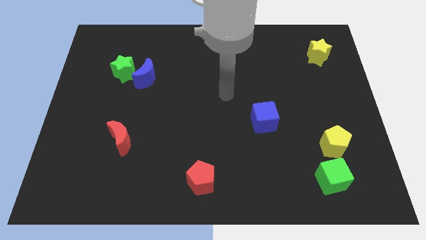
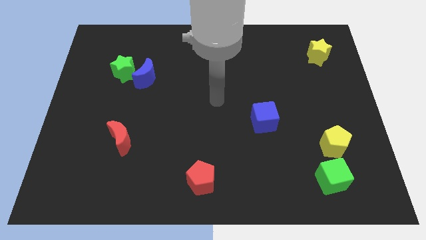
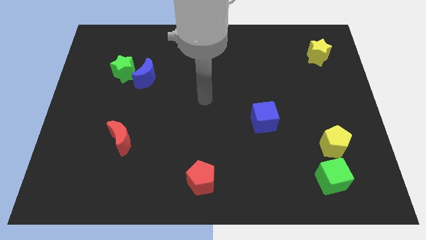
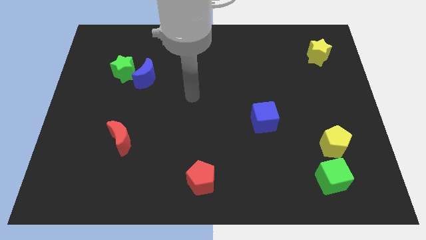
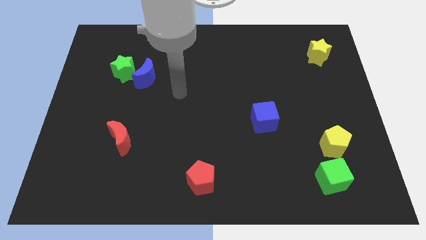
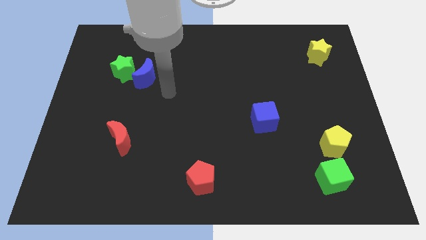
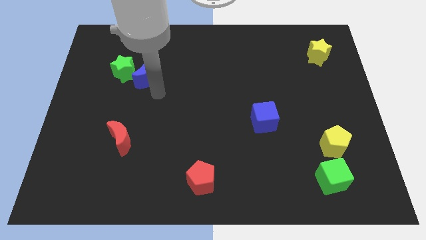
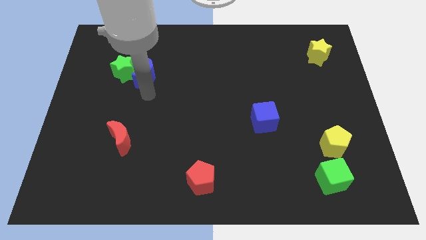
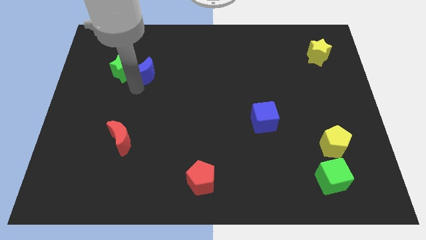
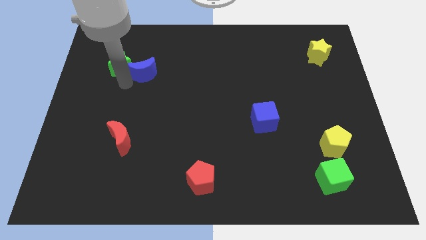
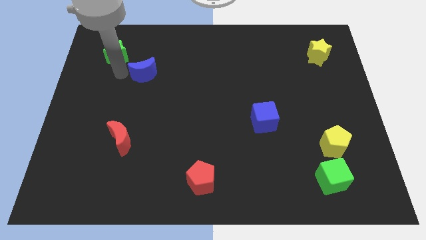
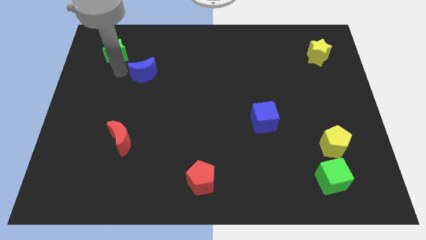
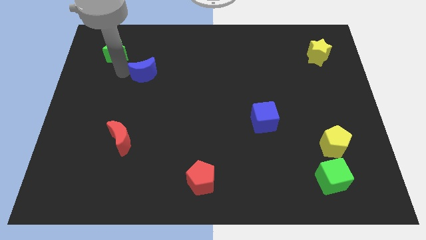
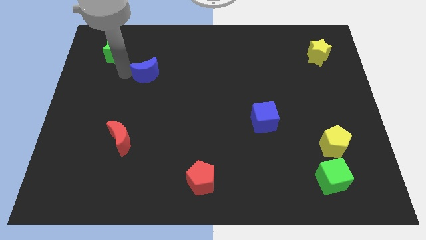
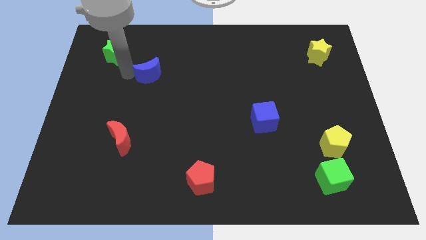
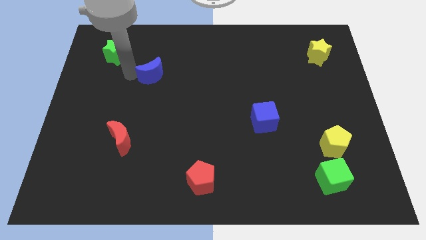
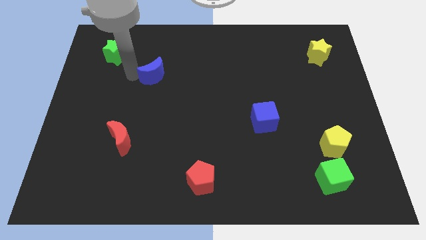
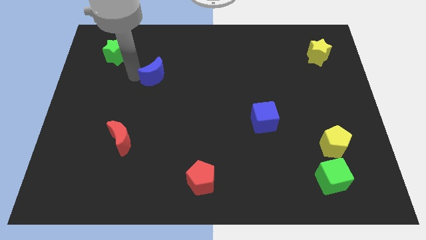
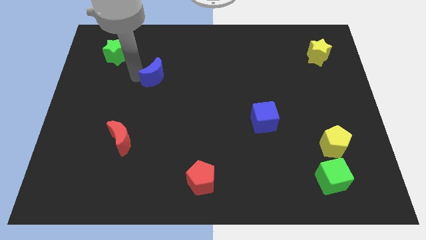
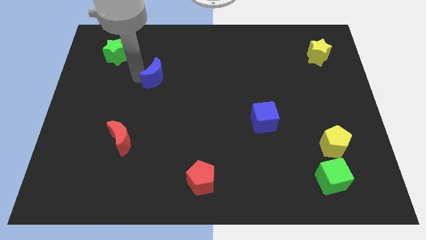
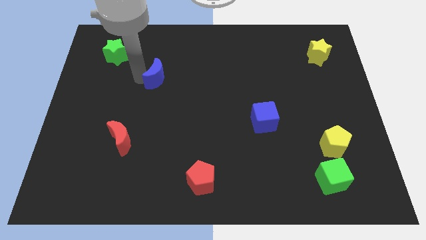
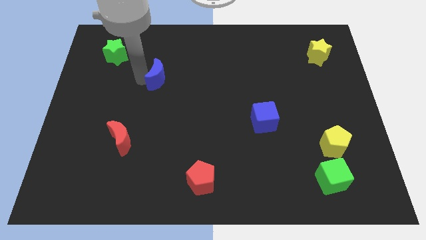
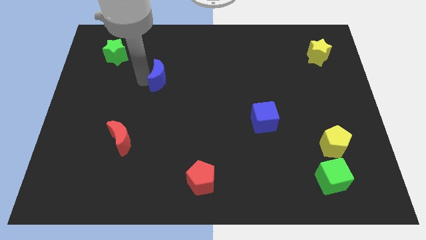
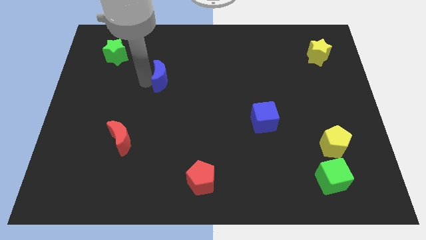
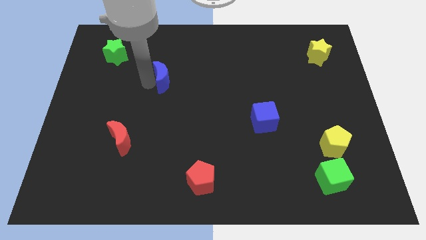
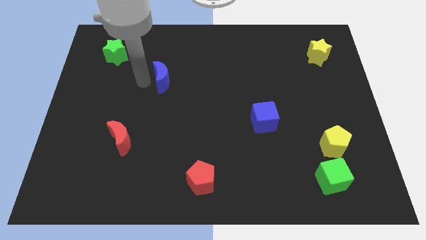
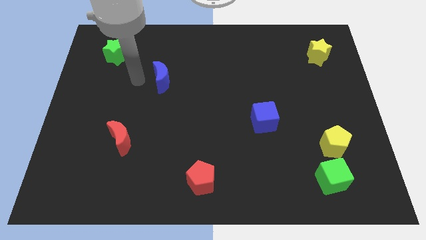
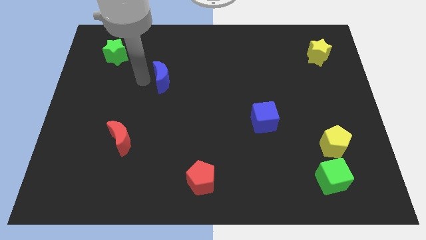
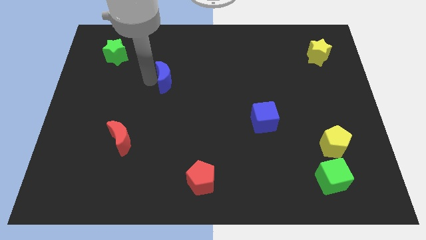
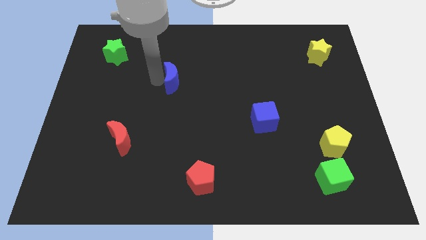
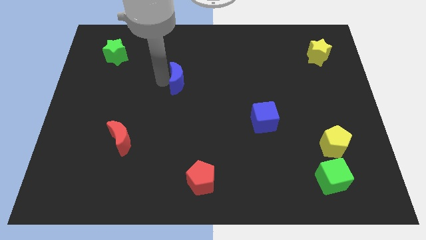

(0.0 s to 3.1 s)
slide the blue moon a little right

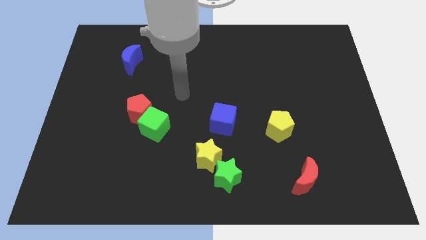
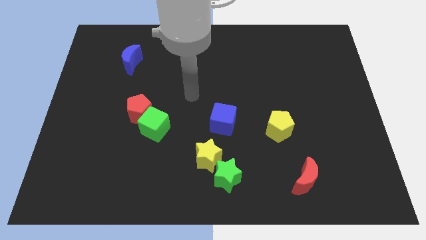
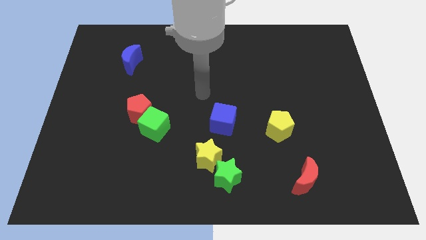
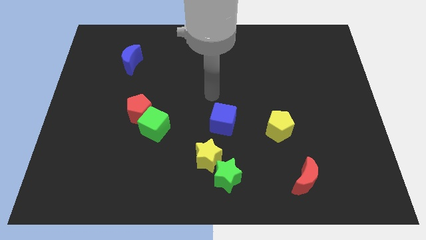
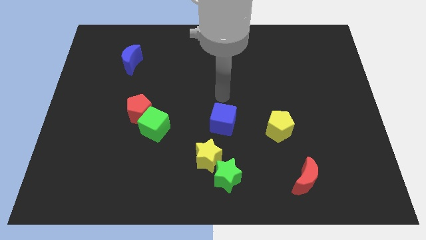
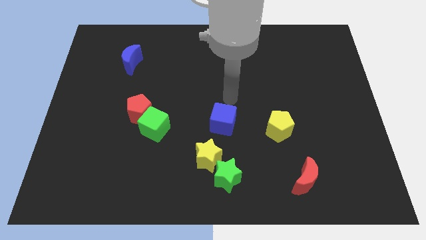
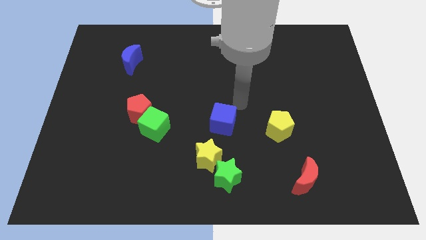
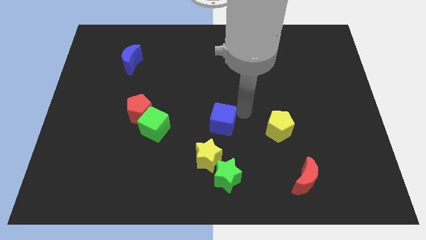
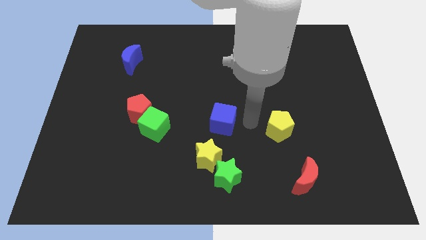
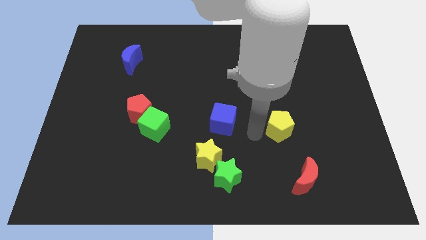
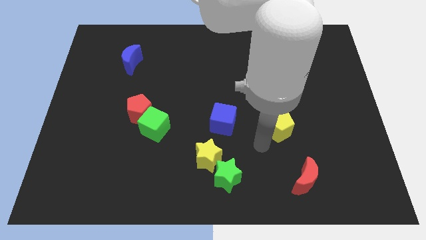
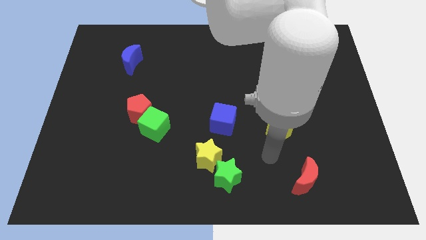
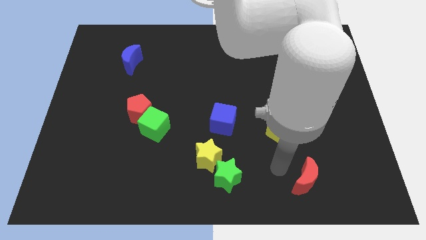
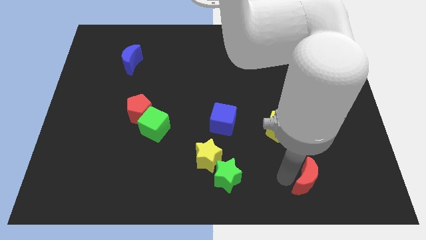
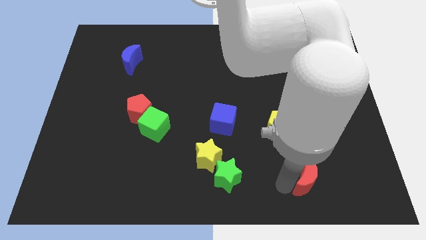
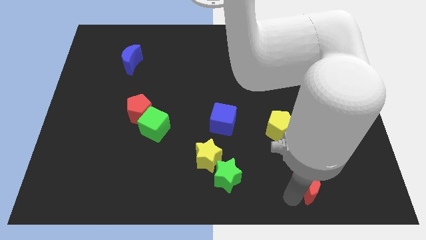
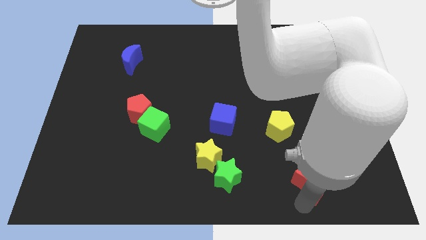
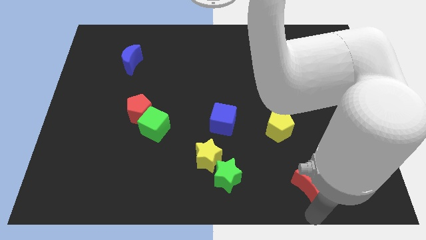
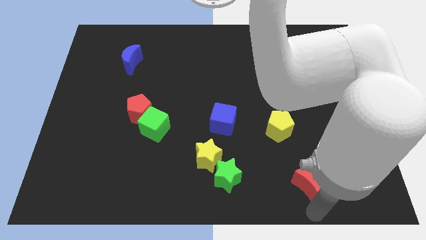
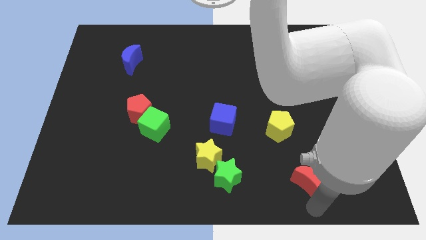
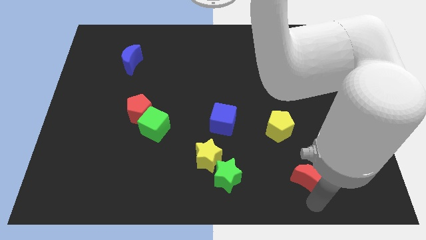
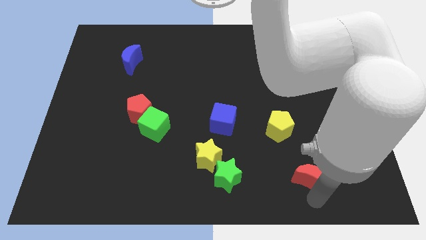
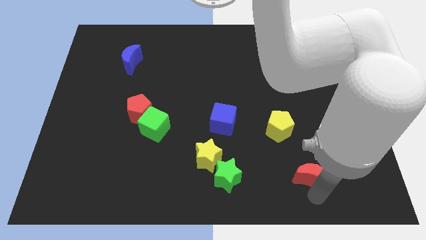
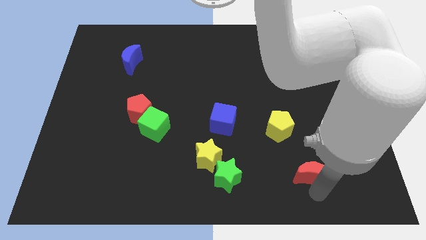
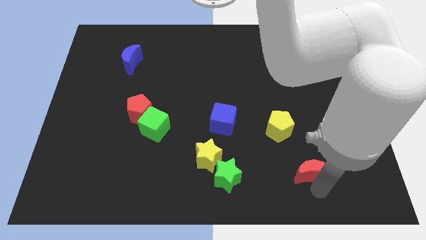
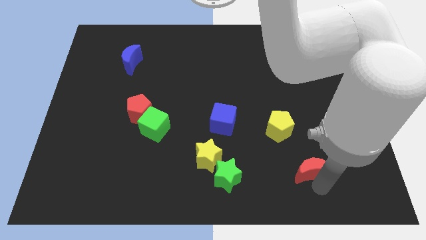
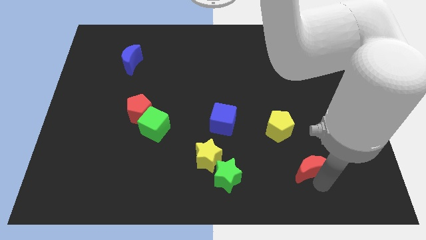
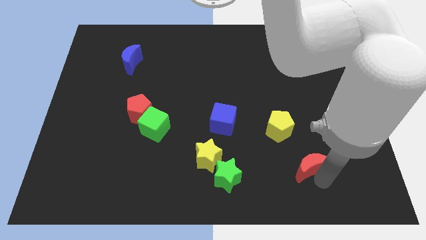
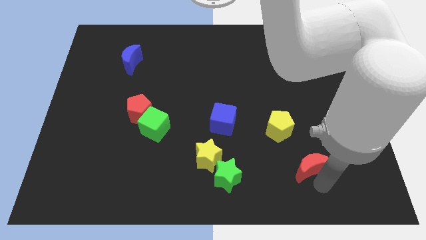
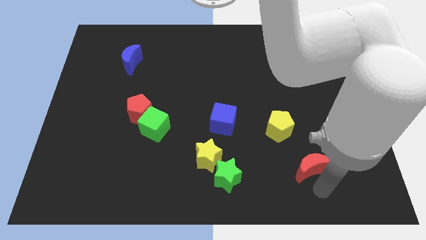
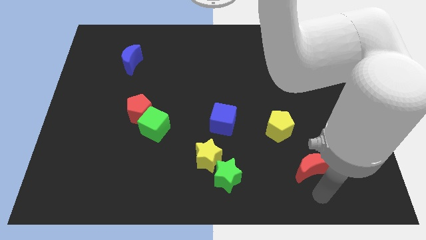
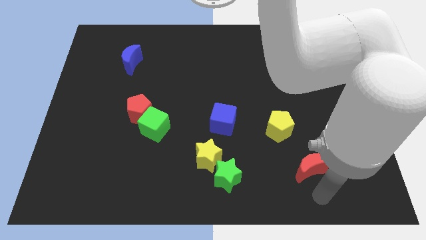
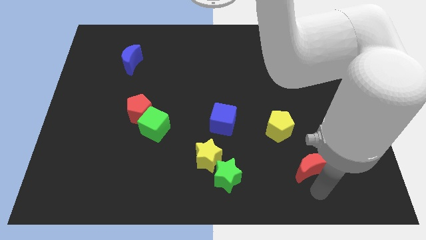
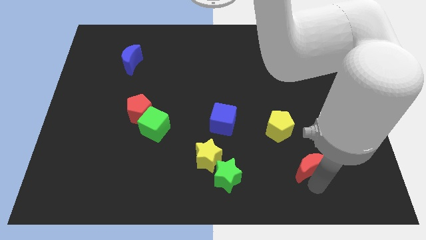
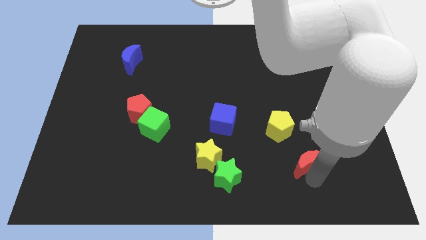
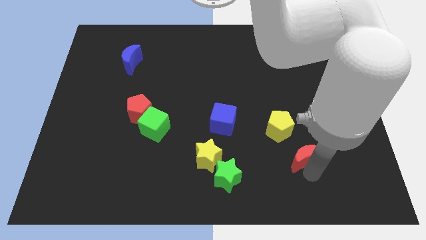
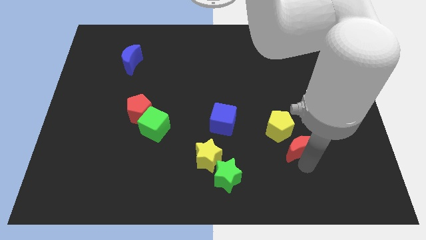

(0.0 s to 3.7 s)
push the red moon upwards a bit

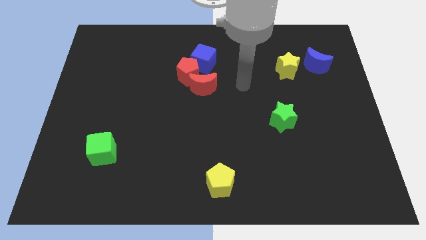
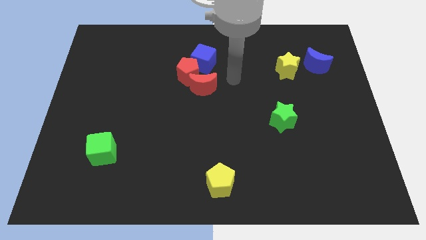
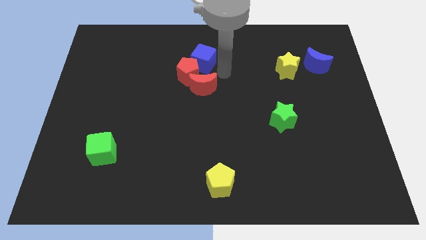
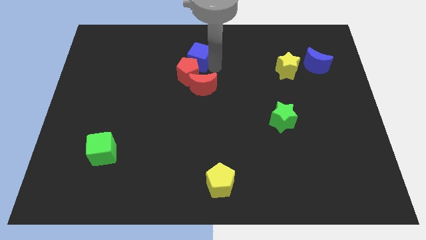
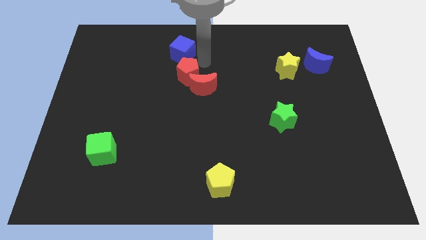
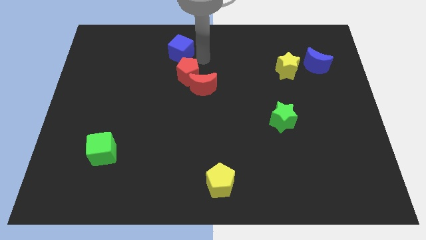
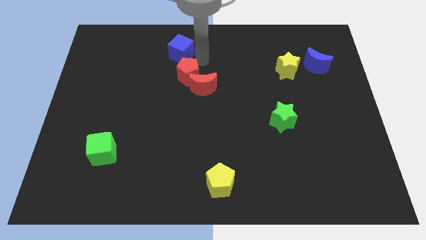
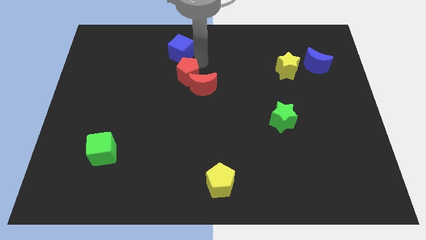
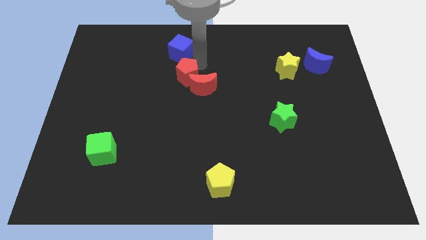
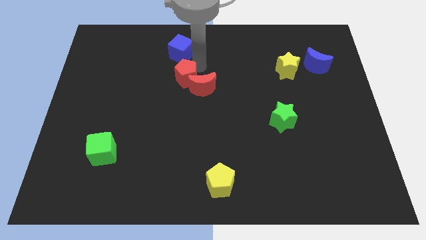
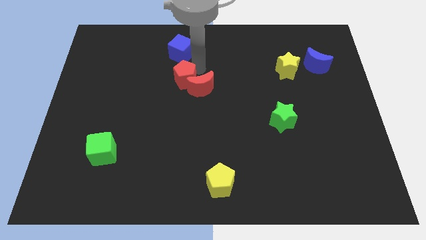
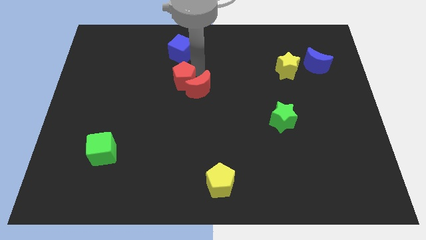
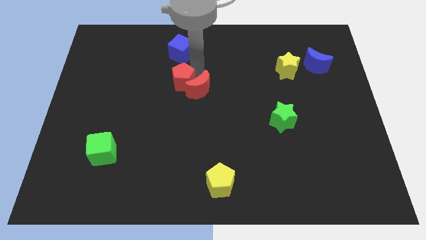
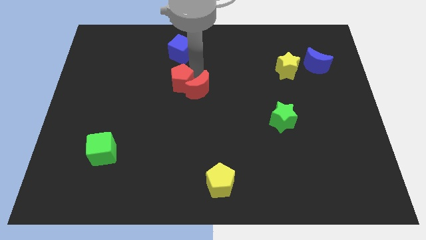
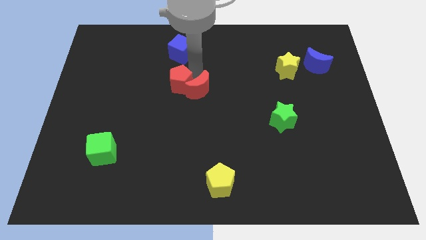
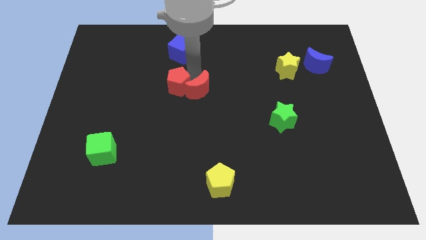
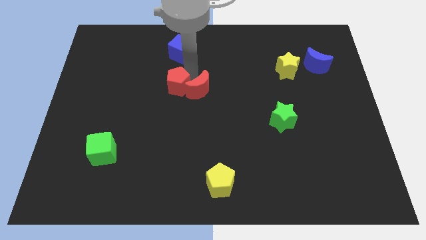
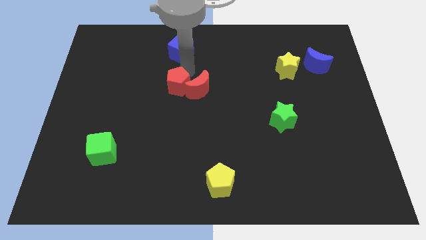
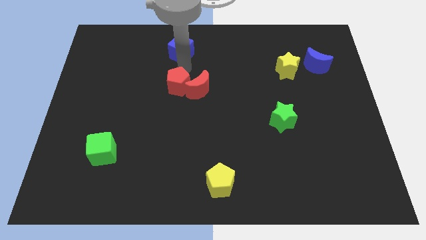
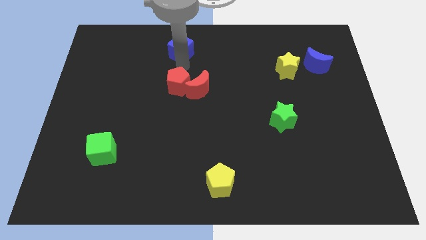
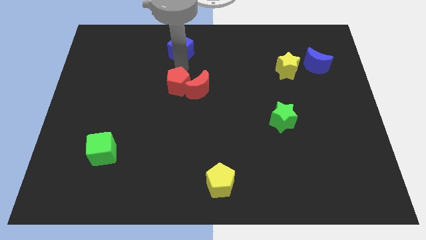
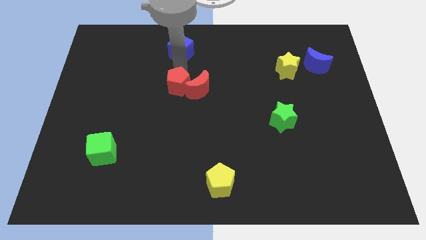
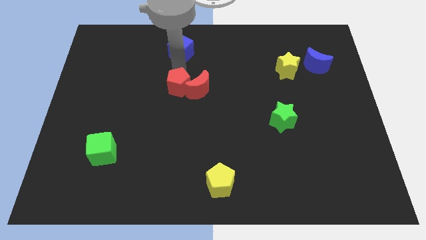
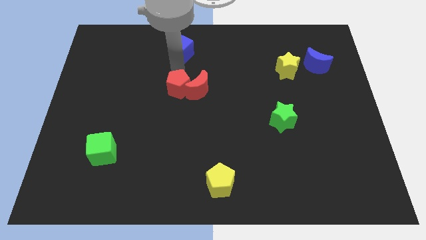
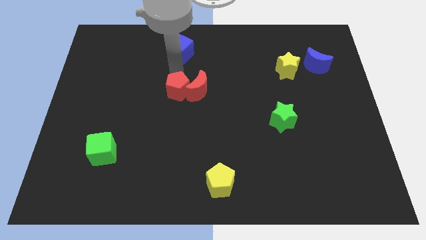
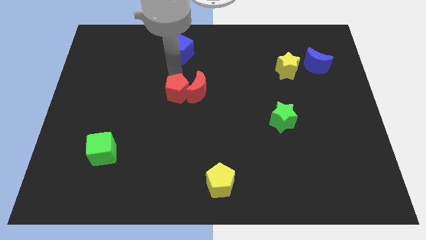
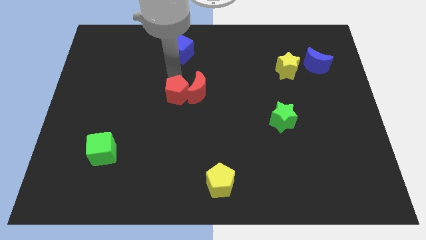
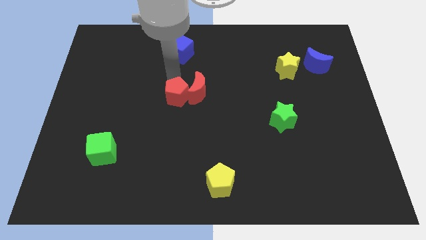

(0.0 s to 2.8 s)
push the red pentagon a little down
